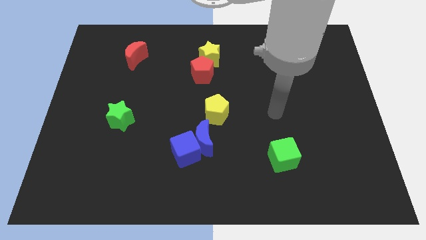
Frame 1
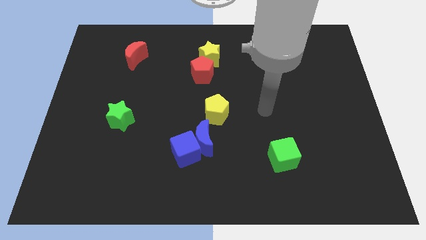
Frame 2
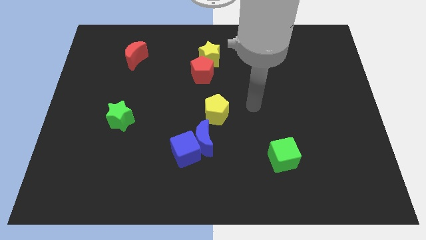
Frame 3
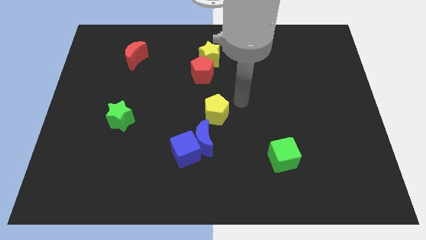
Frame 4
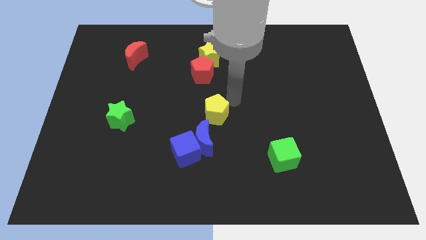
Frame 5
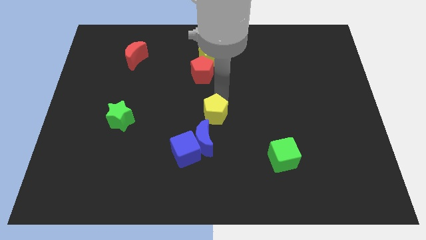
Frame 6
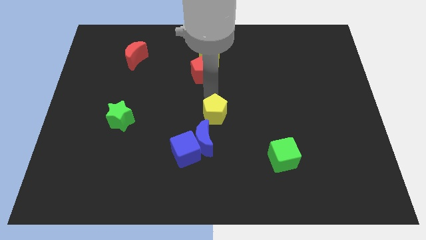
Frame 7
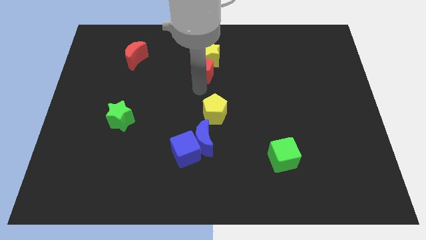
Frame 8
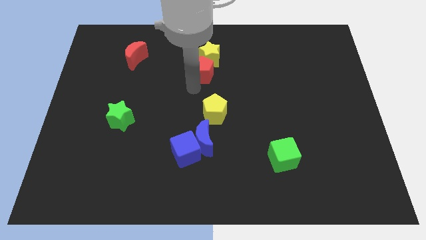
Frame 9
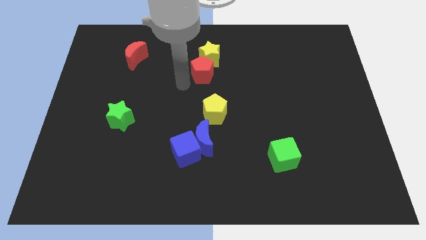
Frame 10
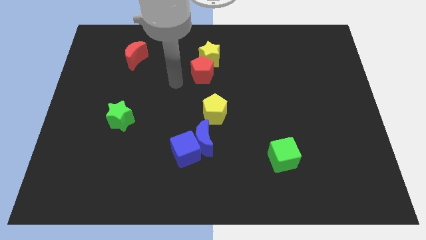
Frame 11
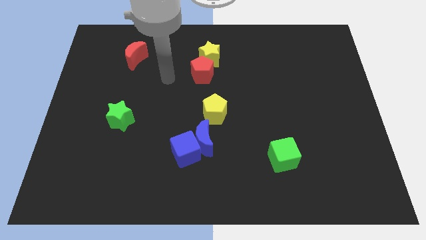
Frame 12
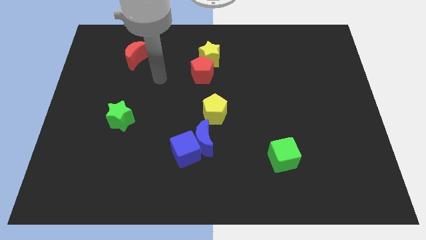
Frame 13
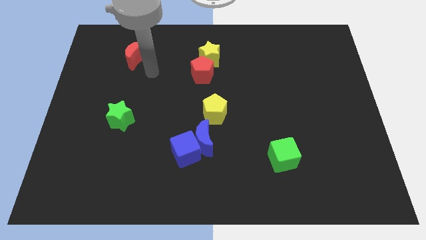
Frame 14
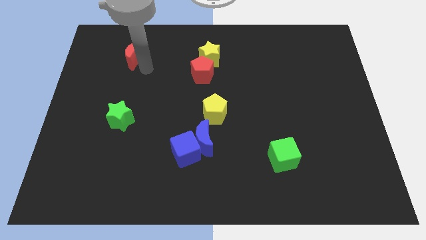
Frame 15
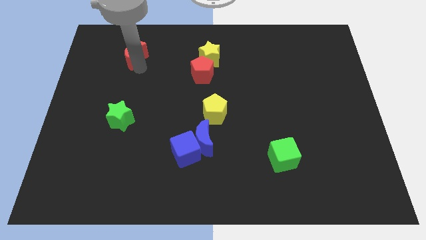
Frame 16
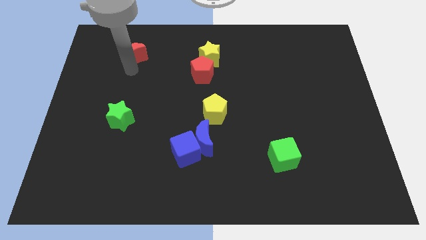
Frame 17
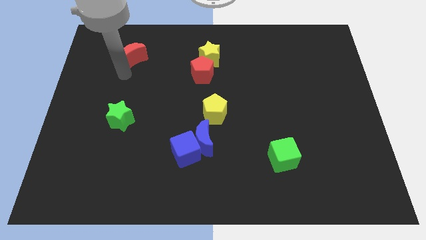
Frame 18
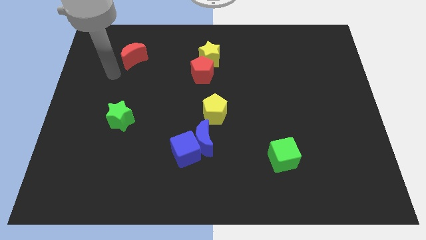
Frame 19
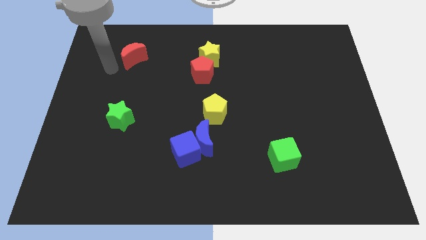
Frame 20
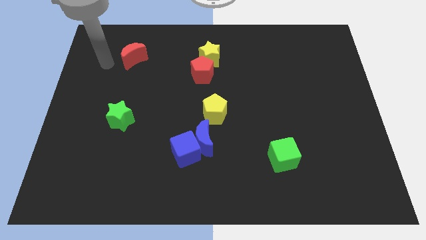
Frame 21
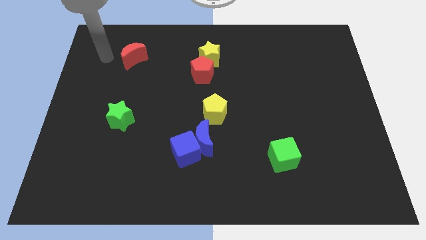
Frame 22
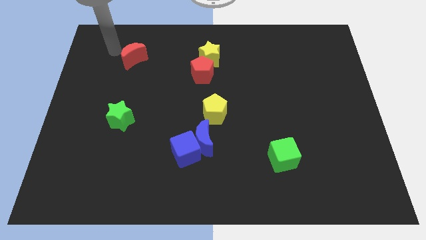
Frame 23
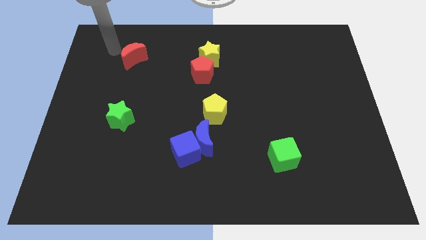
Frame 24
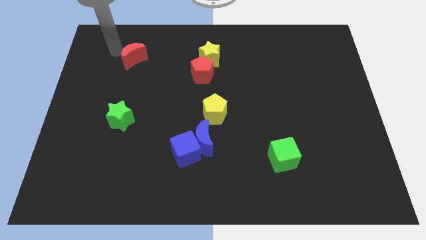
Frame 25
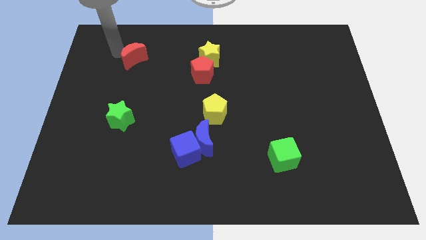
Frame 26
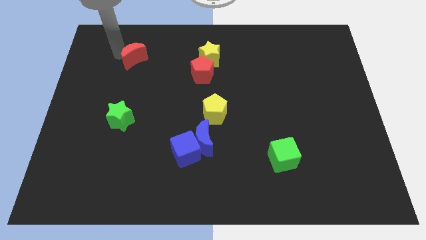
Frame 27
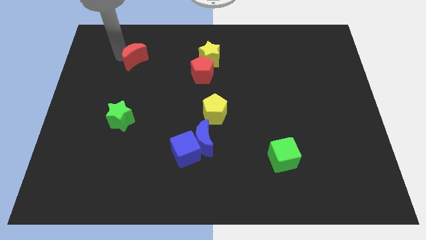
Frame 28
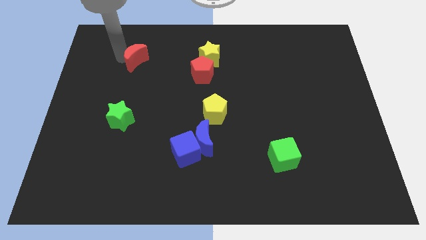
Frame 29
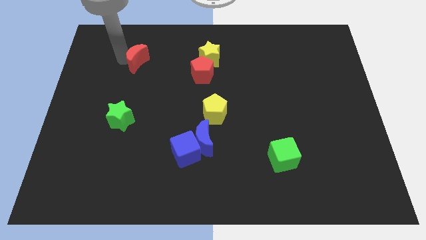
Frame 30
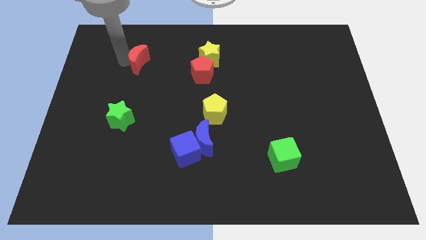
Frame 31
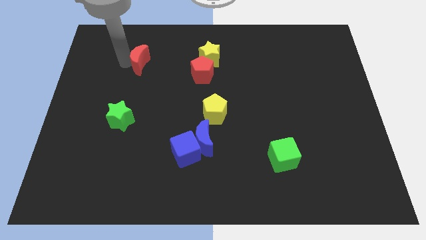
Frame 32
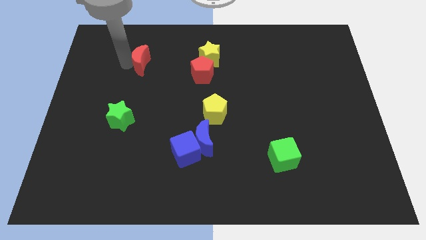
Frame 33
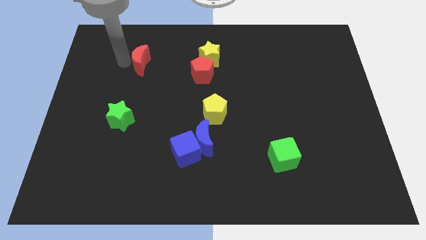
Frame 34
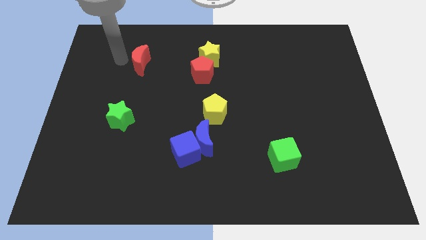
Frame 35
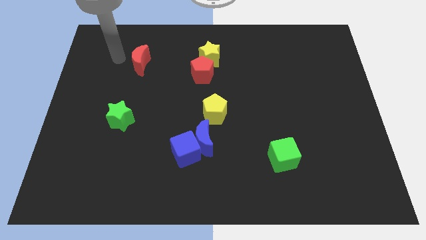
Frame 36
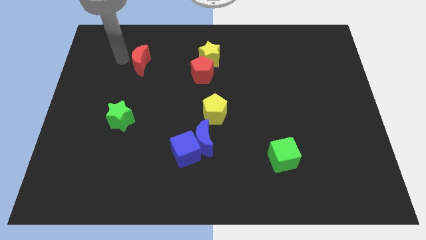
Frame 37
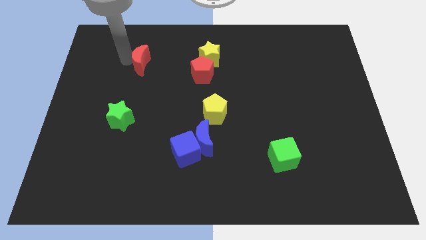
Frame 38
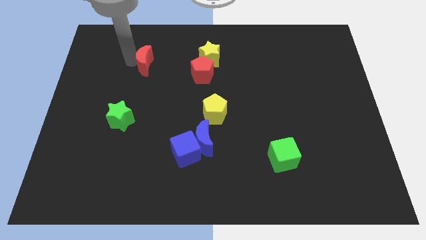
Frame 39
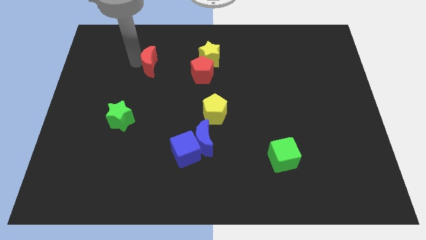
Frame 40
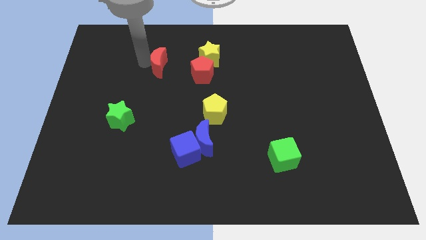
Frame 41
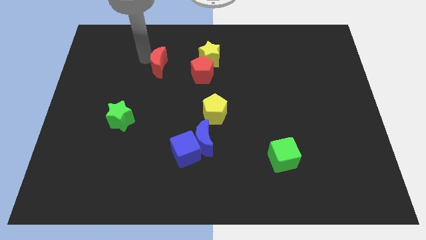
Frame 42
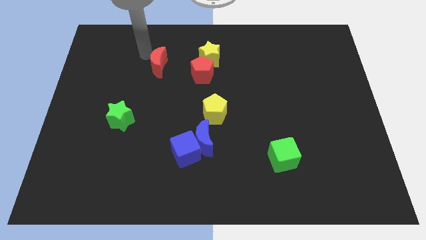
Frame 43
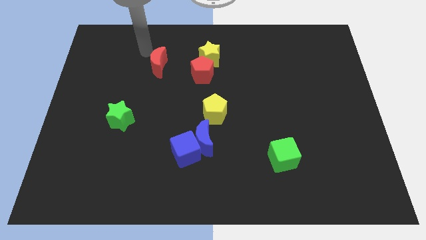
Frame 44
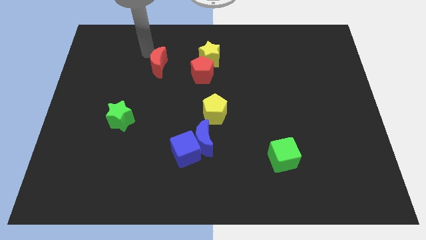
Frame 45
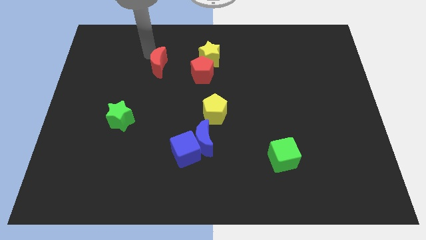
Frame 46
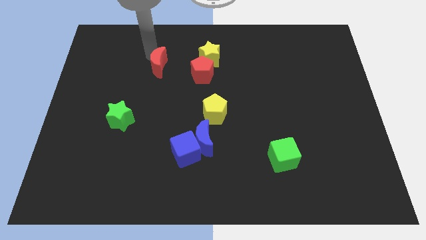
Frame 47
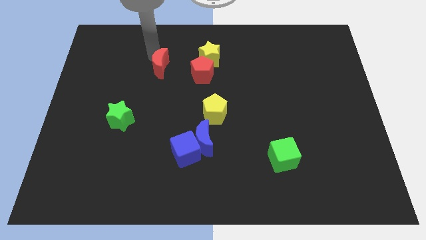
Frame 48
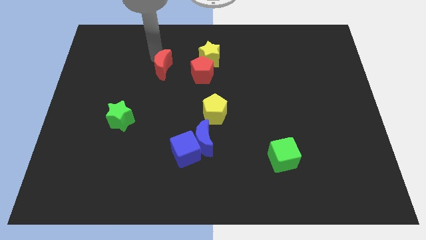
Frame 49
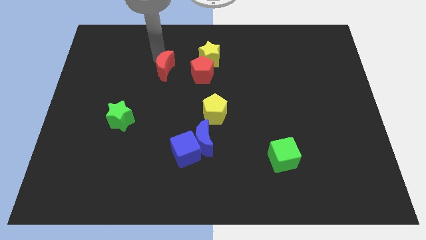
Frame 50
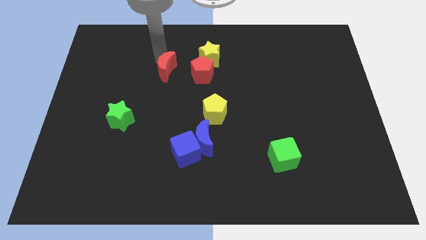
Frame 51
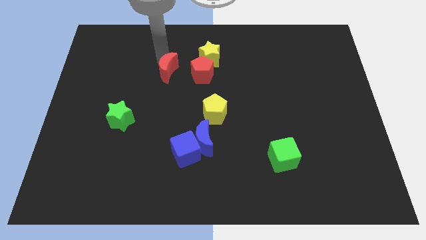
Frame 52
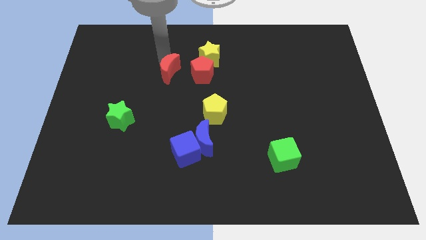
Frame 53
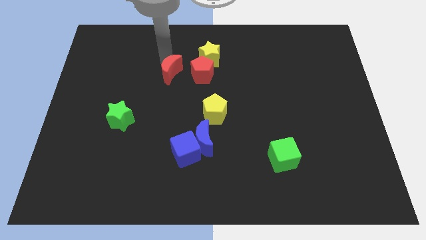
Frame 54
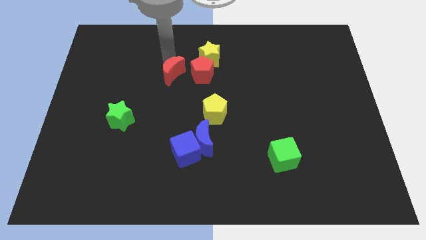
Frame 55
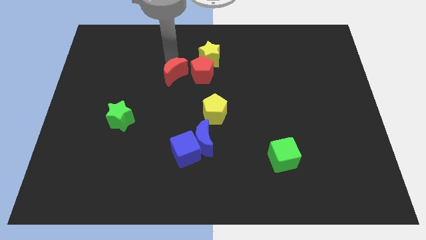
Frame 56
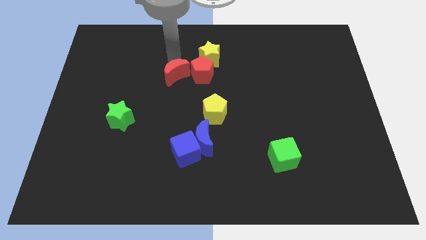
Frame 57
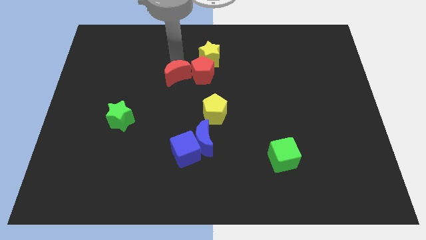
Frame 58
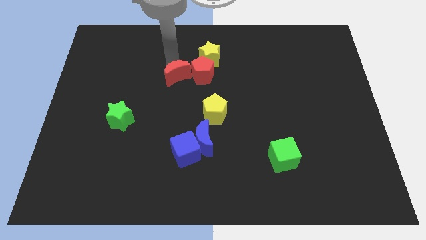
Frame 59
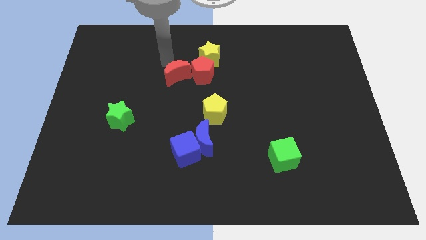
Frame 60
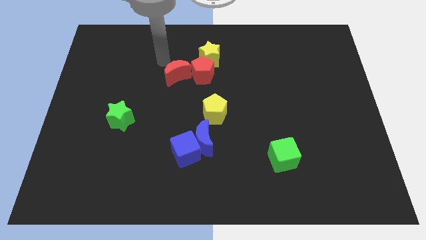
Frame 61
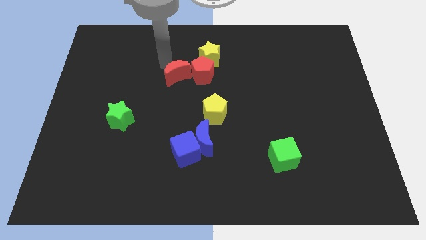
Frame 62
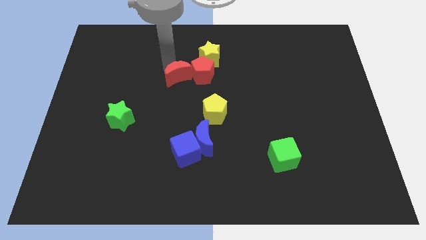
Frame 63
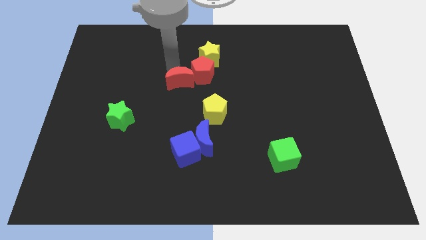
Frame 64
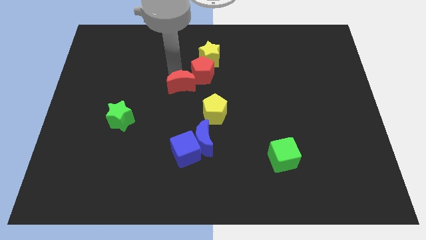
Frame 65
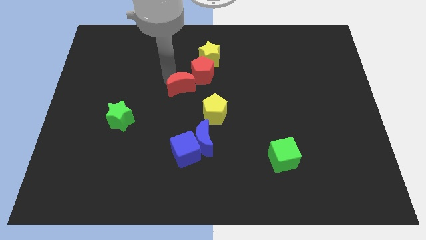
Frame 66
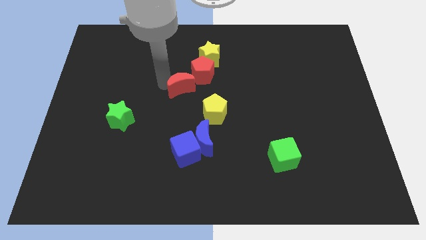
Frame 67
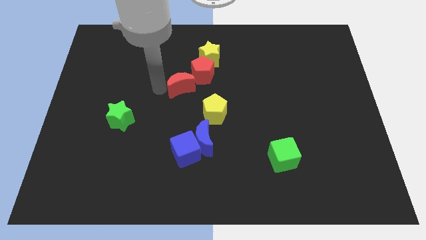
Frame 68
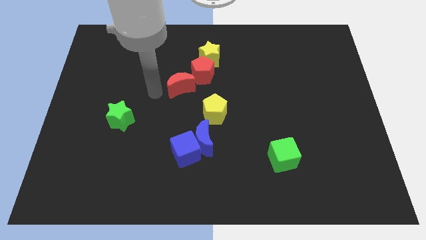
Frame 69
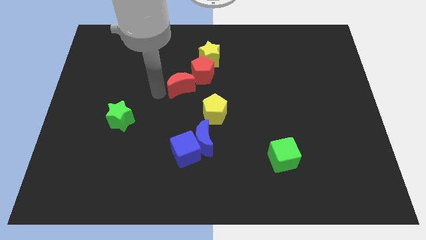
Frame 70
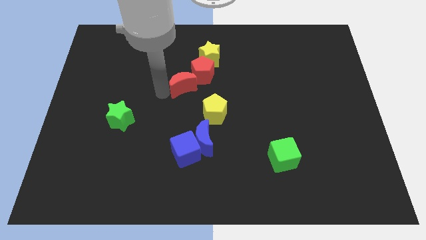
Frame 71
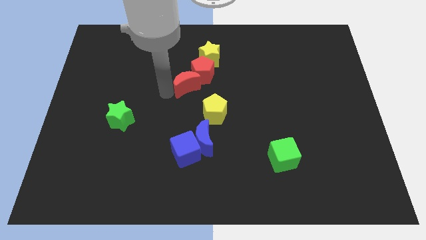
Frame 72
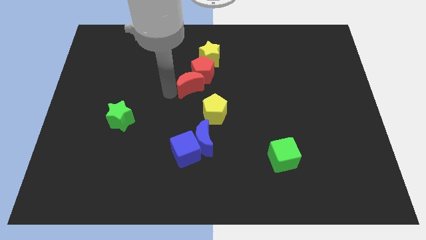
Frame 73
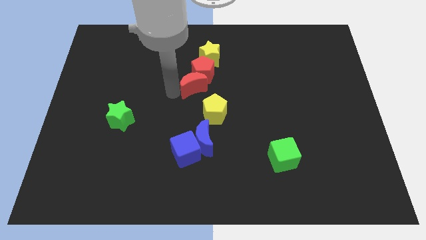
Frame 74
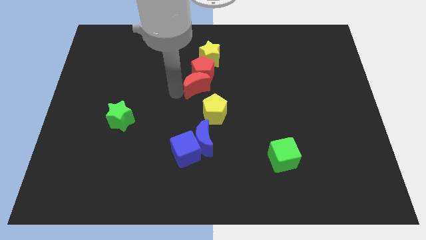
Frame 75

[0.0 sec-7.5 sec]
push the red moon to the top of the yellow pentagon
